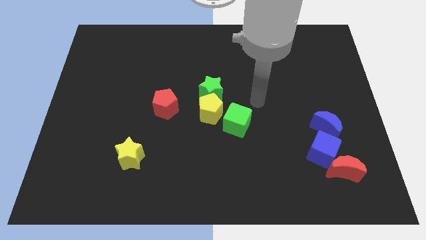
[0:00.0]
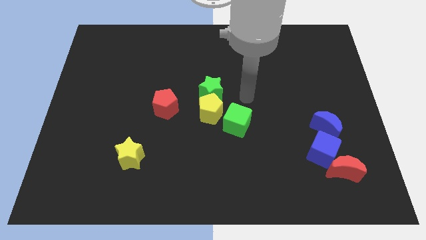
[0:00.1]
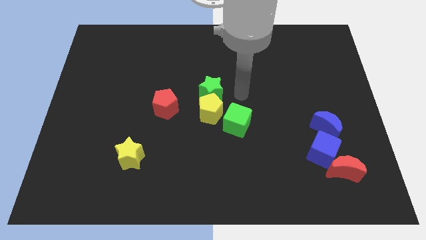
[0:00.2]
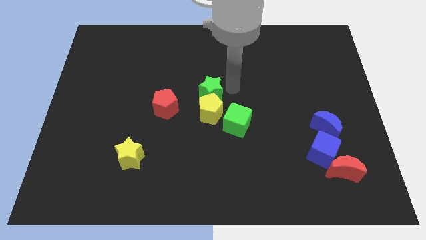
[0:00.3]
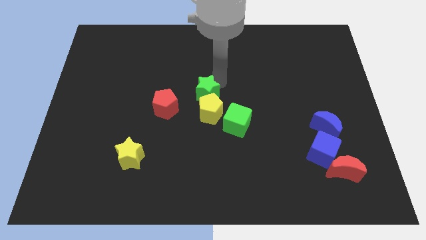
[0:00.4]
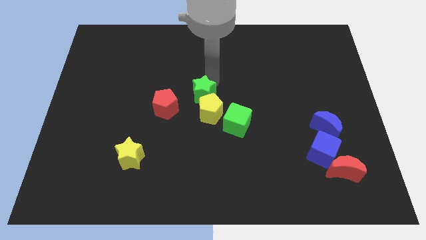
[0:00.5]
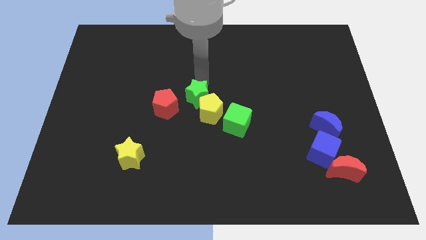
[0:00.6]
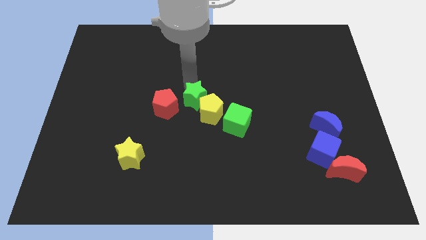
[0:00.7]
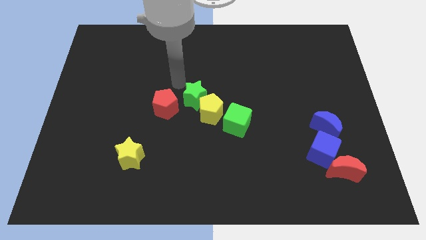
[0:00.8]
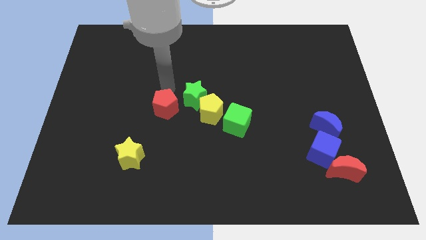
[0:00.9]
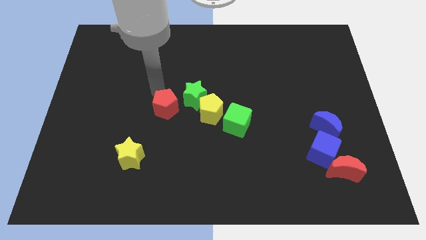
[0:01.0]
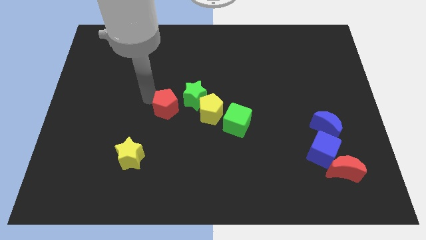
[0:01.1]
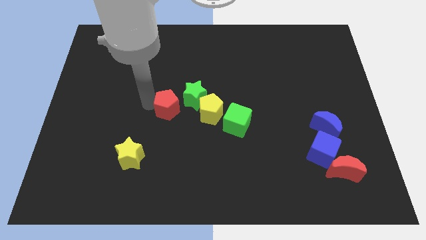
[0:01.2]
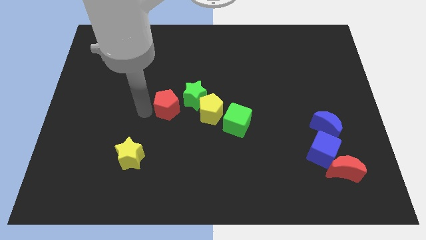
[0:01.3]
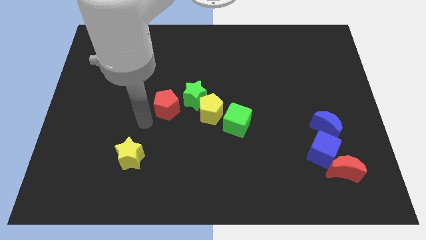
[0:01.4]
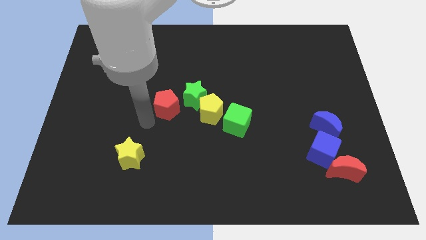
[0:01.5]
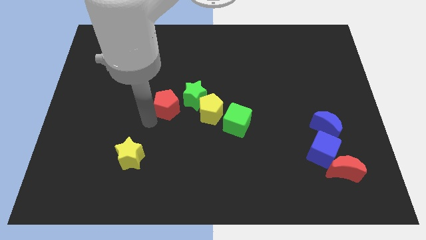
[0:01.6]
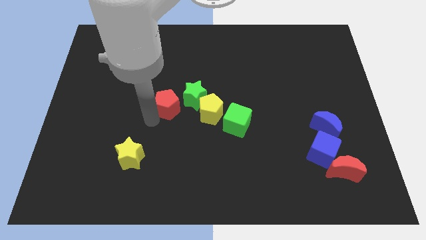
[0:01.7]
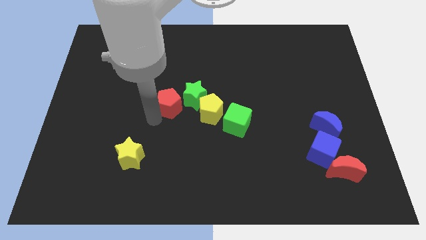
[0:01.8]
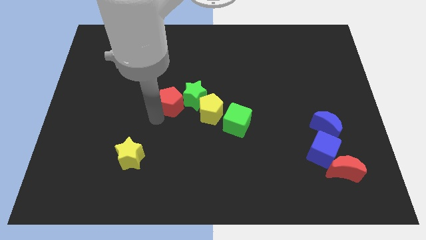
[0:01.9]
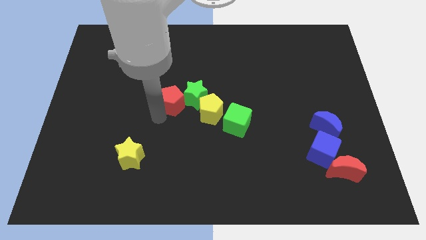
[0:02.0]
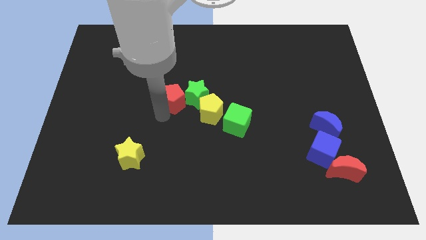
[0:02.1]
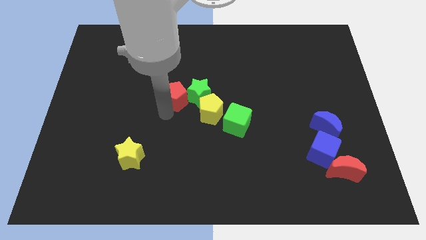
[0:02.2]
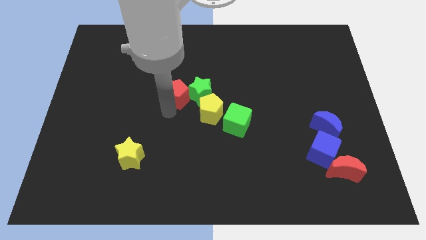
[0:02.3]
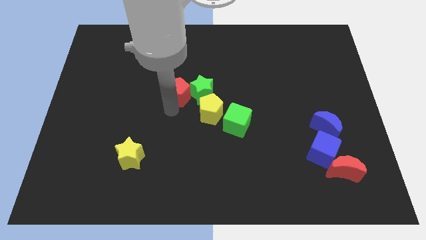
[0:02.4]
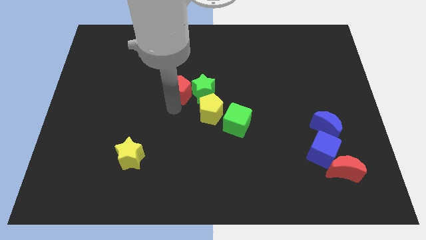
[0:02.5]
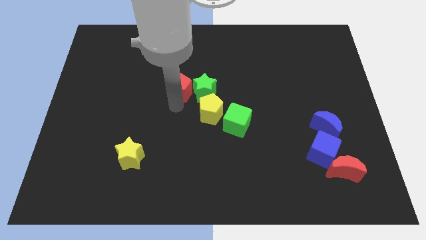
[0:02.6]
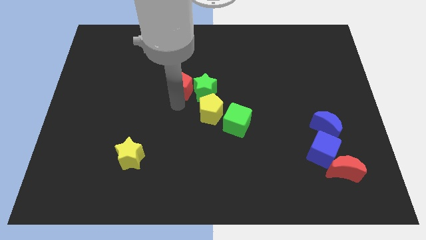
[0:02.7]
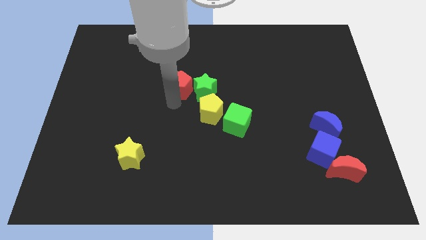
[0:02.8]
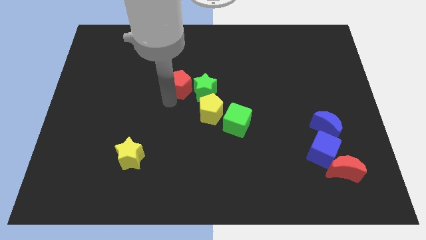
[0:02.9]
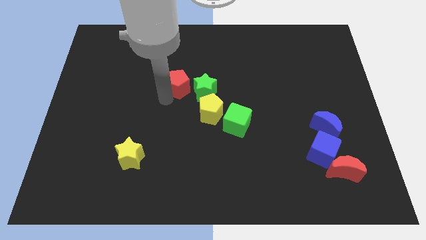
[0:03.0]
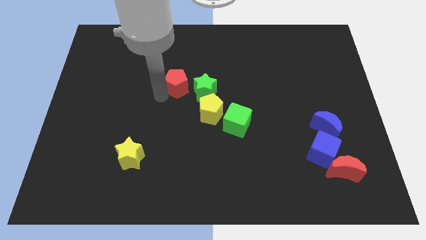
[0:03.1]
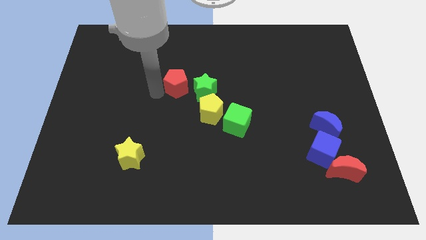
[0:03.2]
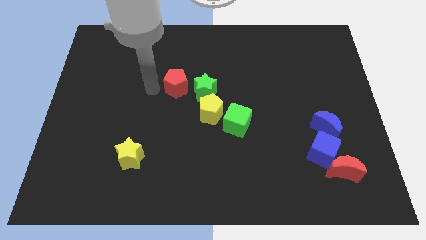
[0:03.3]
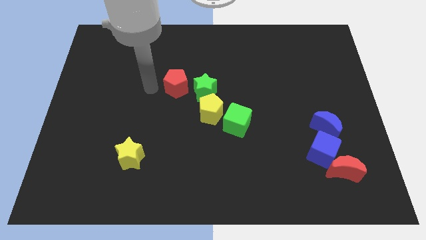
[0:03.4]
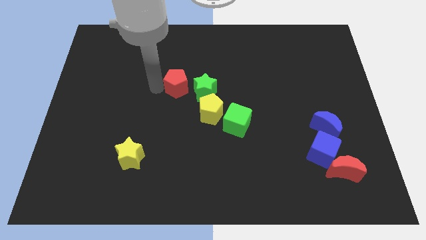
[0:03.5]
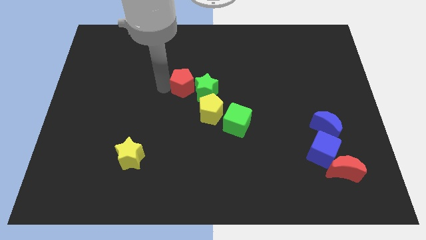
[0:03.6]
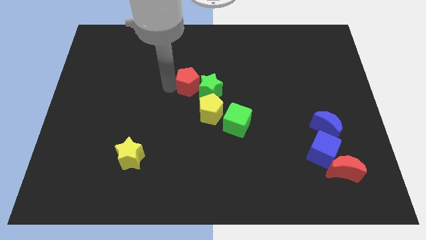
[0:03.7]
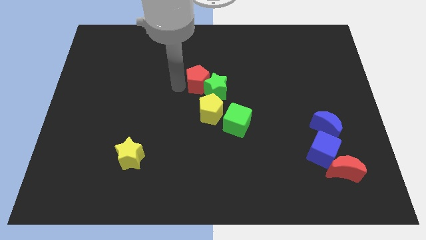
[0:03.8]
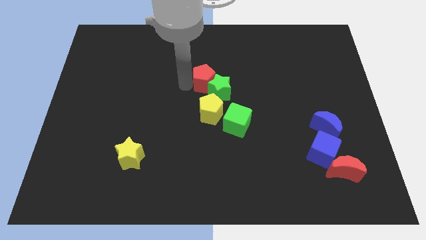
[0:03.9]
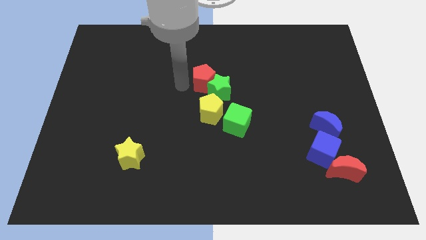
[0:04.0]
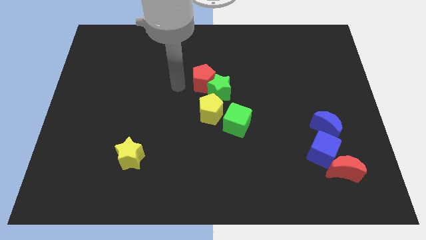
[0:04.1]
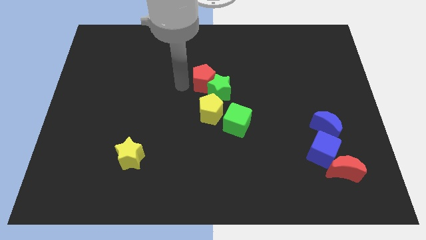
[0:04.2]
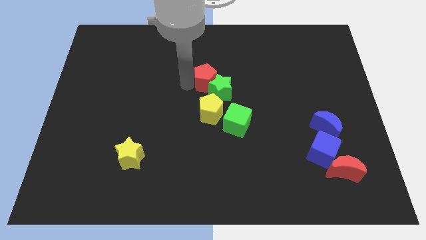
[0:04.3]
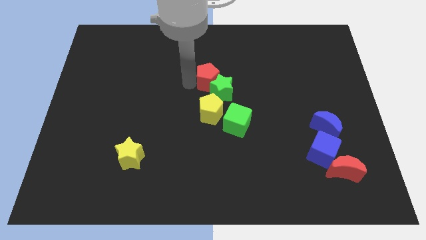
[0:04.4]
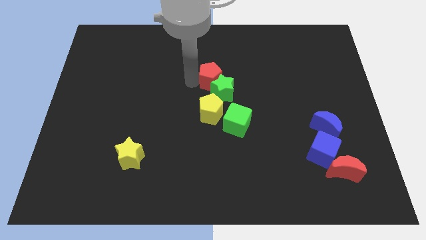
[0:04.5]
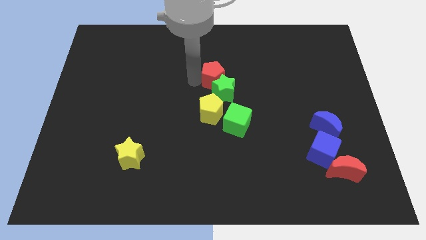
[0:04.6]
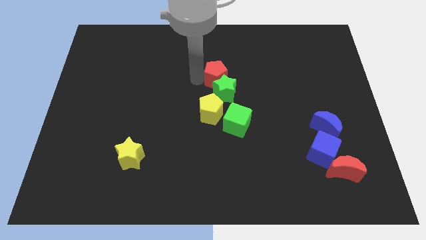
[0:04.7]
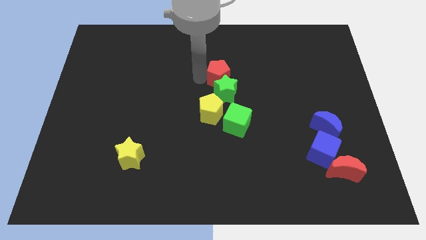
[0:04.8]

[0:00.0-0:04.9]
push the red pentagon to the top of the green cube

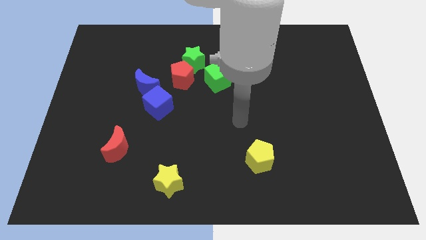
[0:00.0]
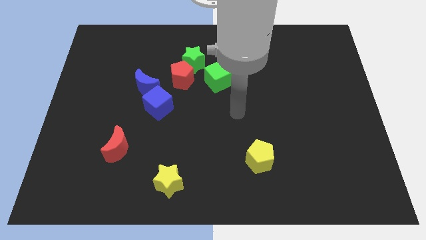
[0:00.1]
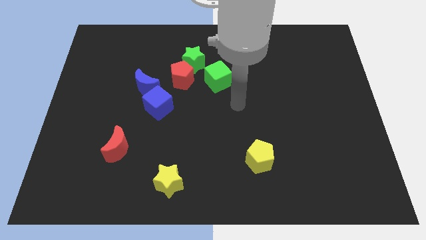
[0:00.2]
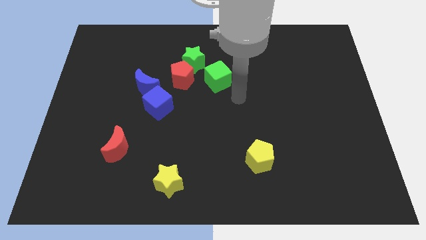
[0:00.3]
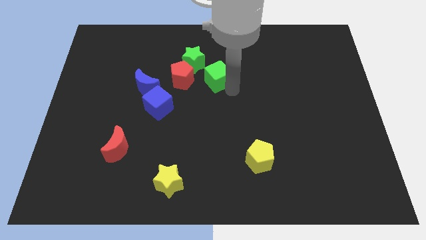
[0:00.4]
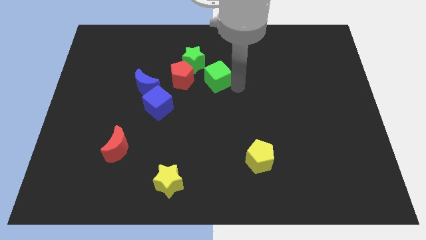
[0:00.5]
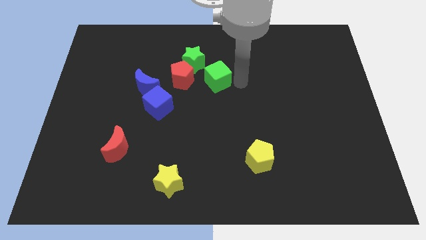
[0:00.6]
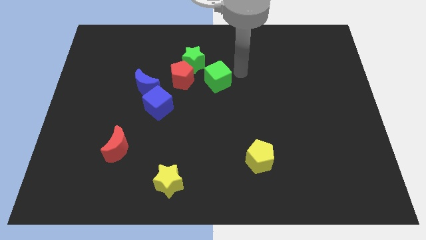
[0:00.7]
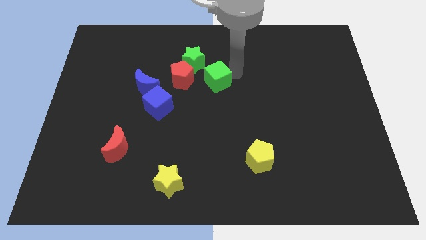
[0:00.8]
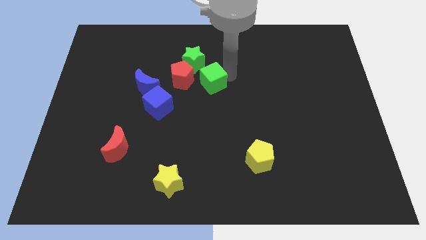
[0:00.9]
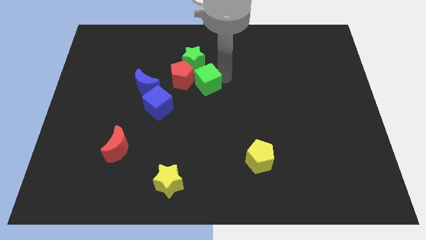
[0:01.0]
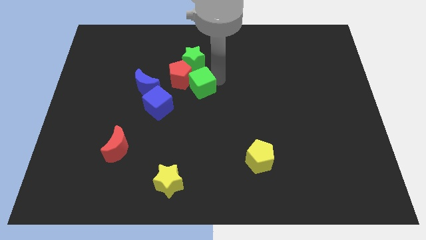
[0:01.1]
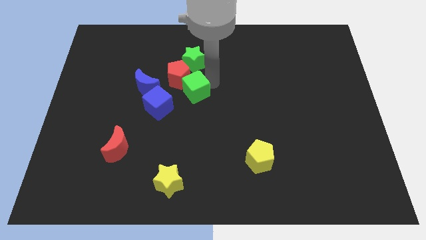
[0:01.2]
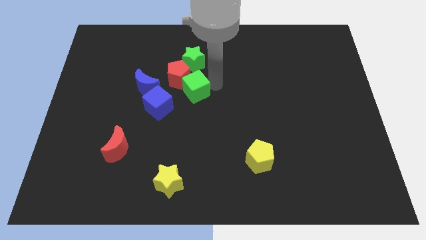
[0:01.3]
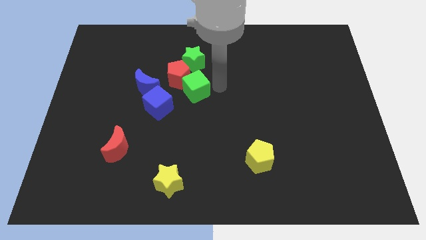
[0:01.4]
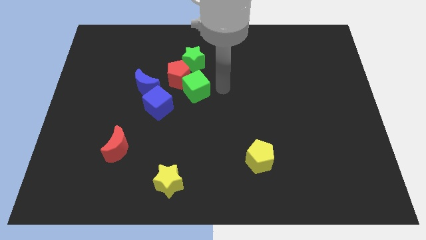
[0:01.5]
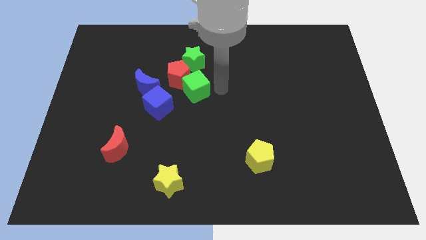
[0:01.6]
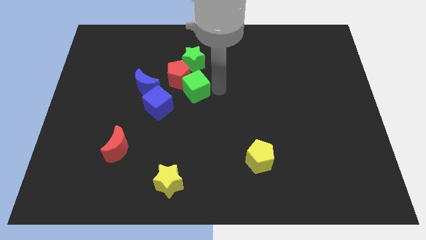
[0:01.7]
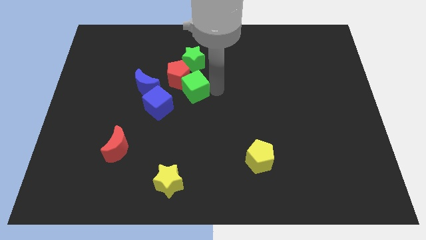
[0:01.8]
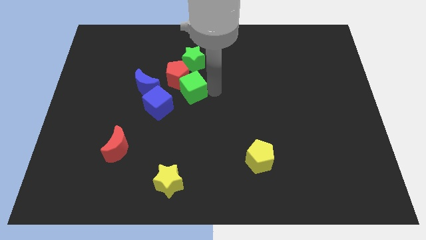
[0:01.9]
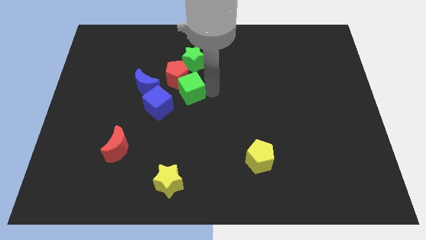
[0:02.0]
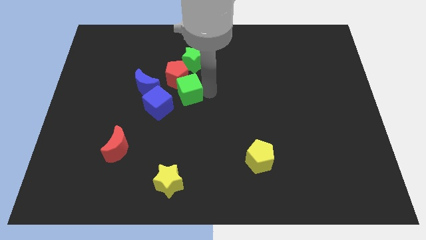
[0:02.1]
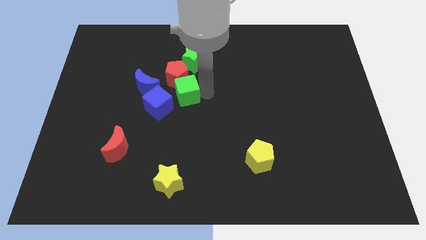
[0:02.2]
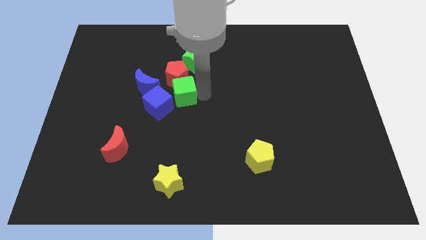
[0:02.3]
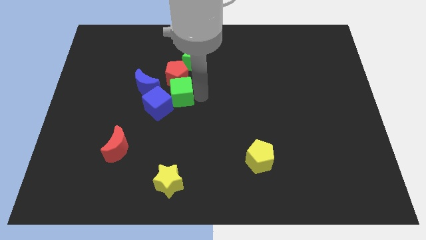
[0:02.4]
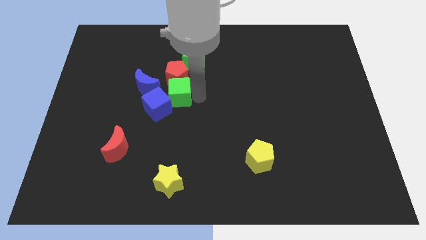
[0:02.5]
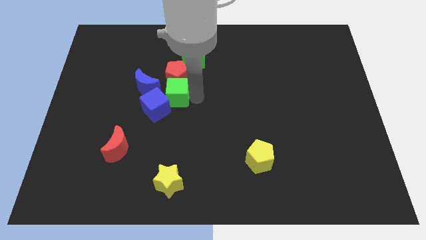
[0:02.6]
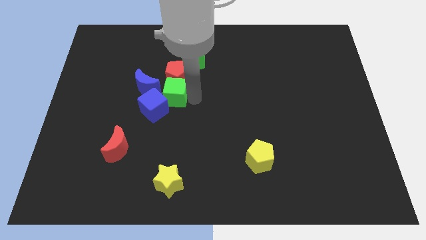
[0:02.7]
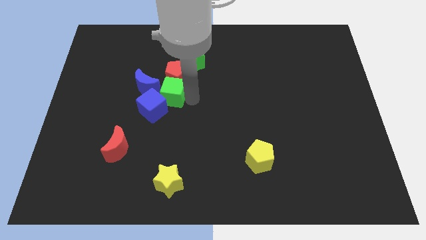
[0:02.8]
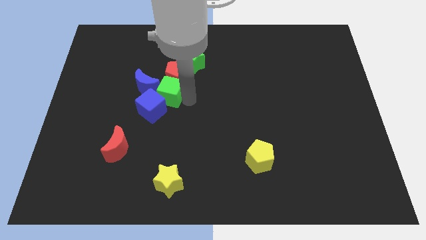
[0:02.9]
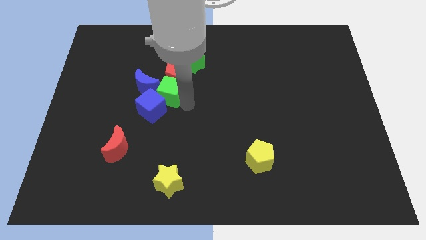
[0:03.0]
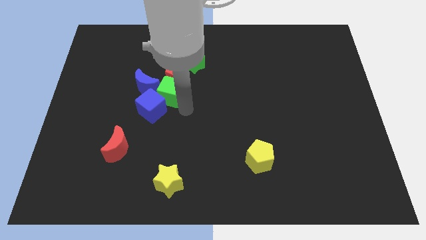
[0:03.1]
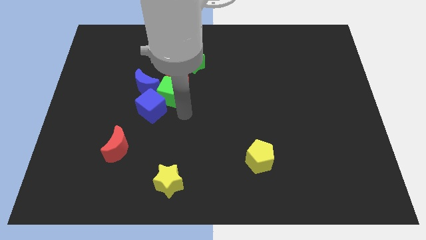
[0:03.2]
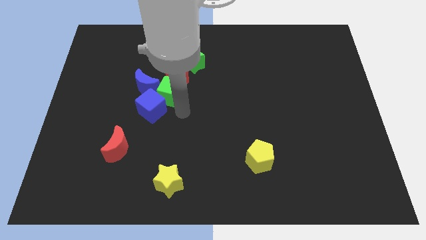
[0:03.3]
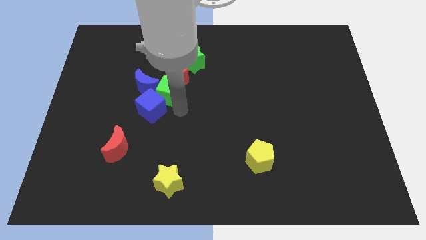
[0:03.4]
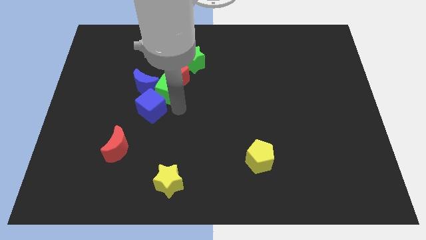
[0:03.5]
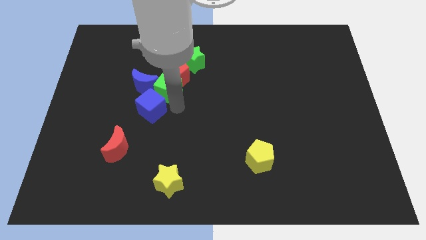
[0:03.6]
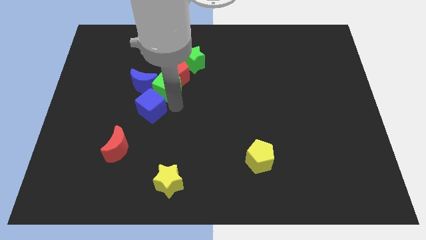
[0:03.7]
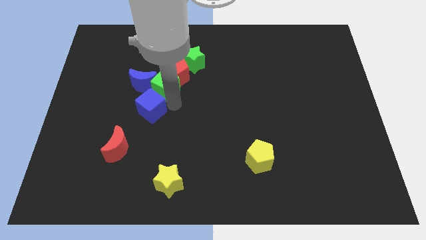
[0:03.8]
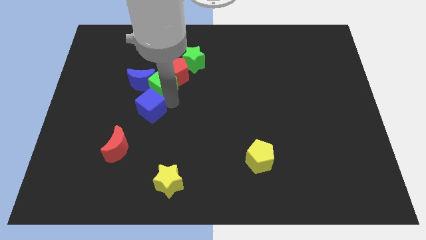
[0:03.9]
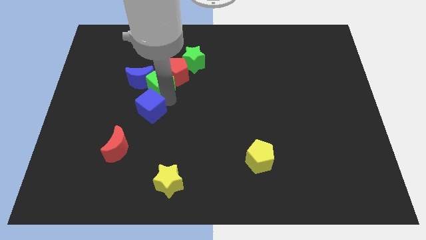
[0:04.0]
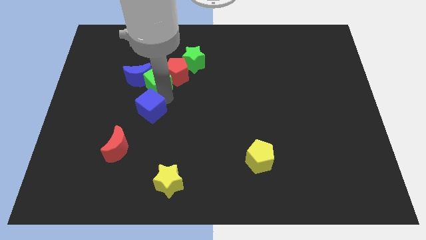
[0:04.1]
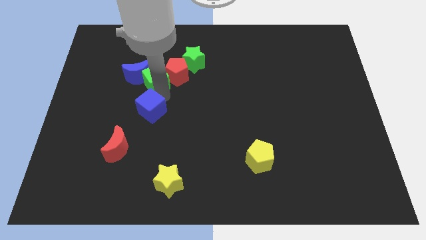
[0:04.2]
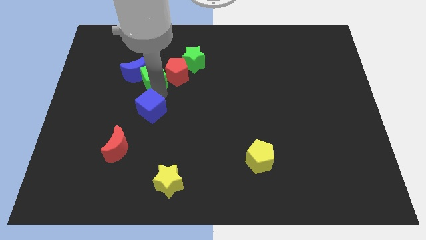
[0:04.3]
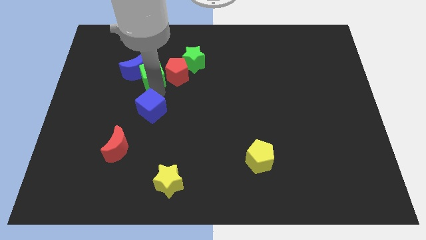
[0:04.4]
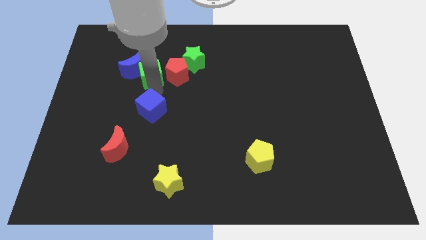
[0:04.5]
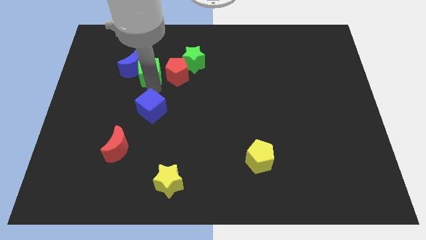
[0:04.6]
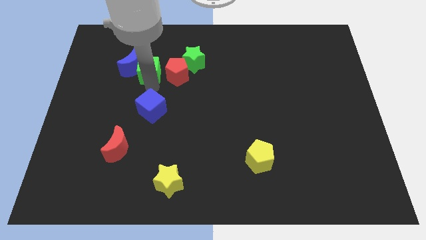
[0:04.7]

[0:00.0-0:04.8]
put the green cube to the top left of the red pentagon
